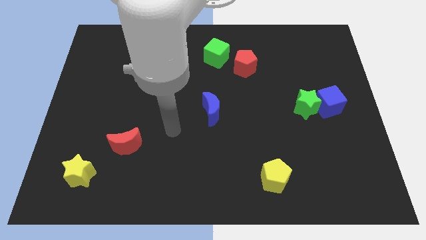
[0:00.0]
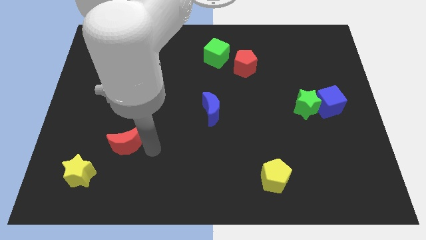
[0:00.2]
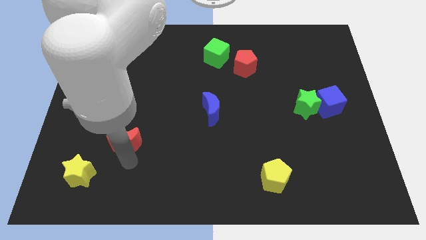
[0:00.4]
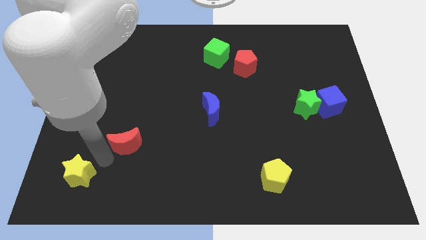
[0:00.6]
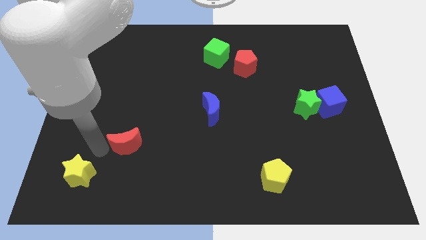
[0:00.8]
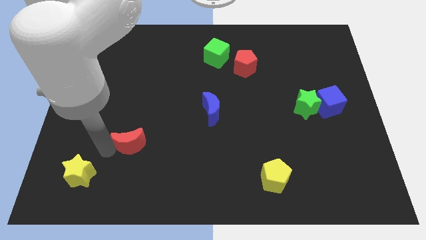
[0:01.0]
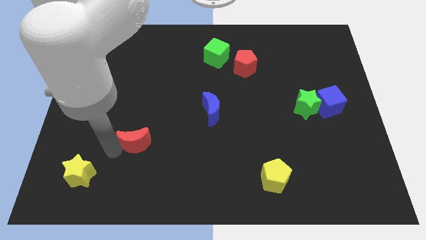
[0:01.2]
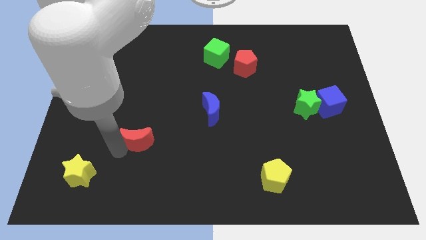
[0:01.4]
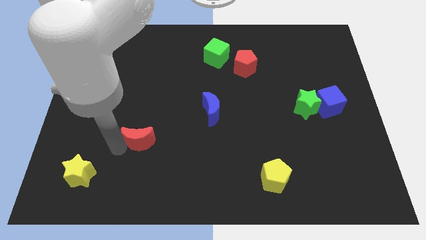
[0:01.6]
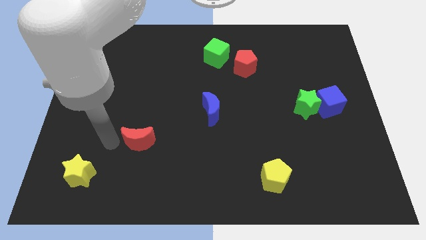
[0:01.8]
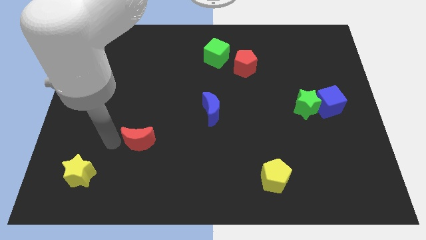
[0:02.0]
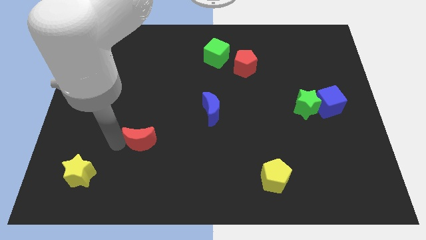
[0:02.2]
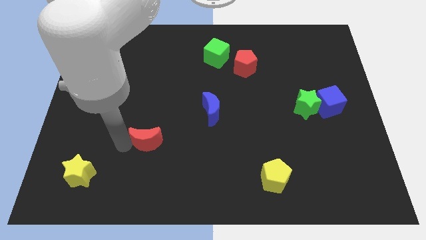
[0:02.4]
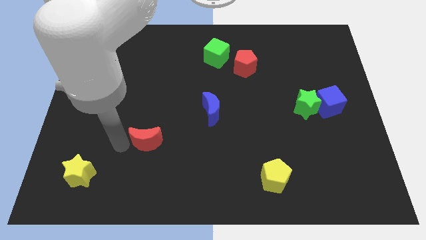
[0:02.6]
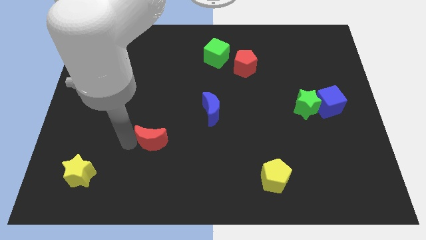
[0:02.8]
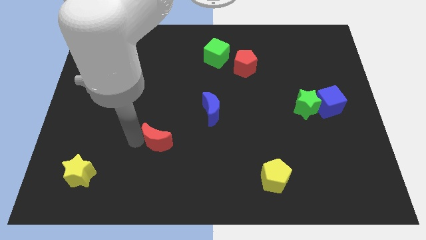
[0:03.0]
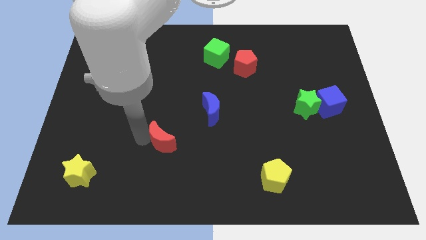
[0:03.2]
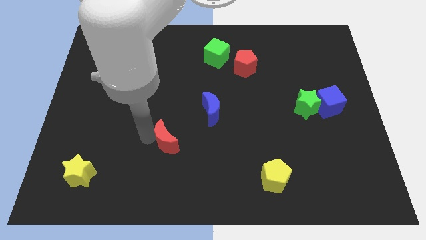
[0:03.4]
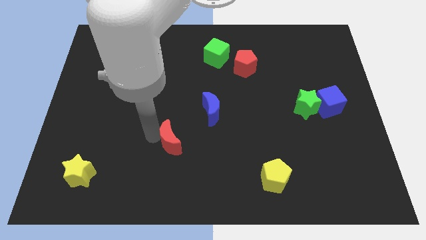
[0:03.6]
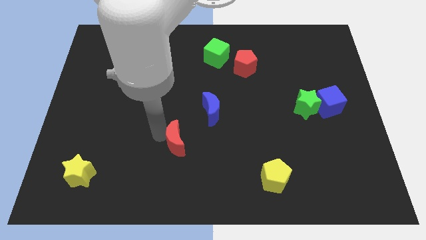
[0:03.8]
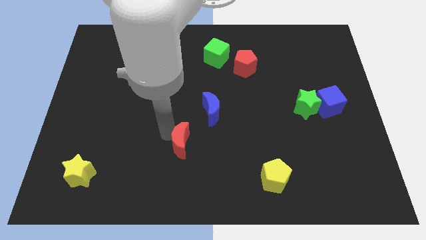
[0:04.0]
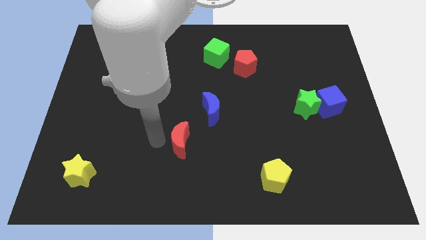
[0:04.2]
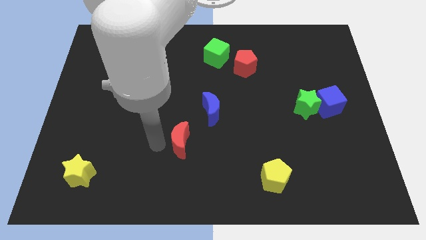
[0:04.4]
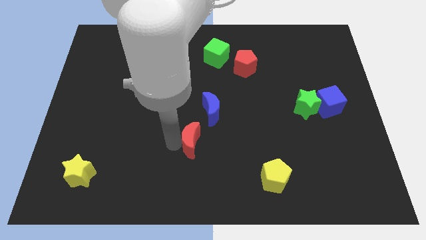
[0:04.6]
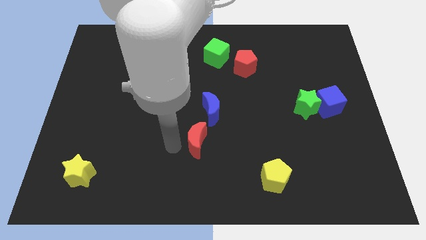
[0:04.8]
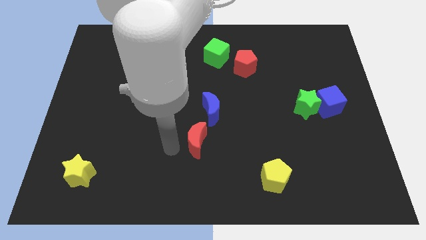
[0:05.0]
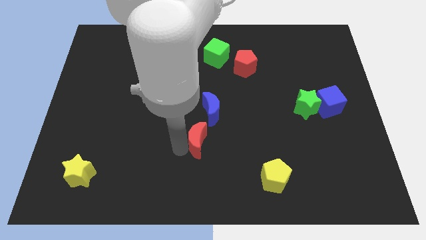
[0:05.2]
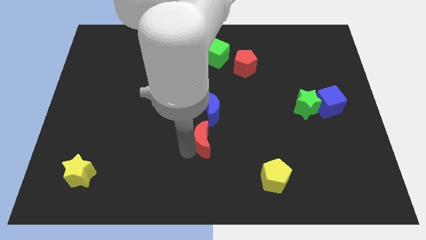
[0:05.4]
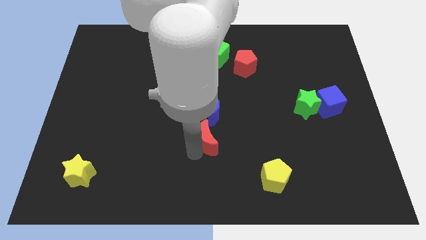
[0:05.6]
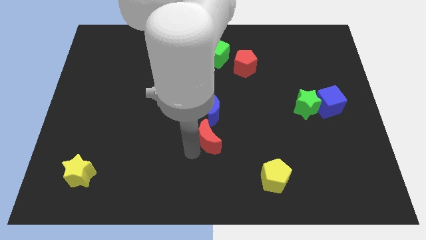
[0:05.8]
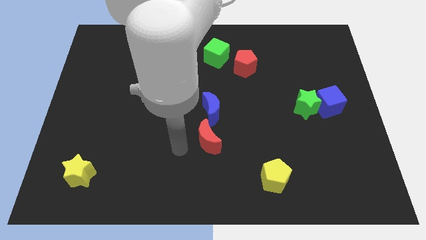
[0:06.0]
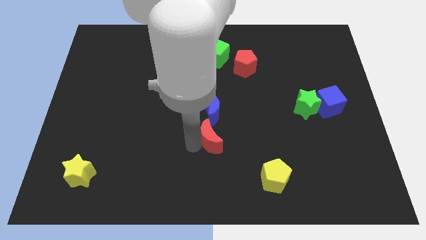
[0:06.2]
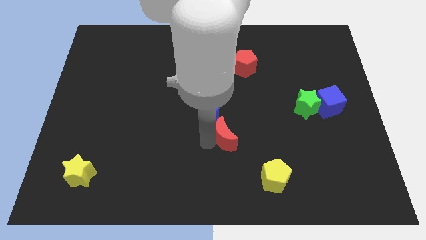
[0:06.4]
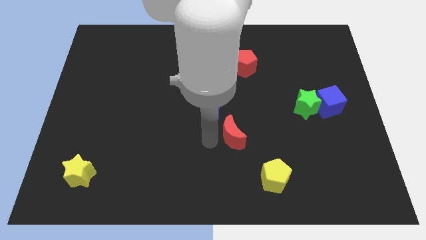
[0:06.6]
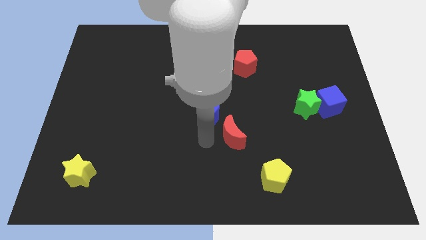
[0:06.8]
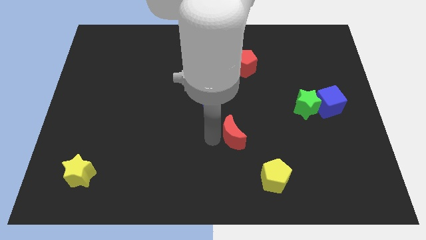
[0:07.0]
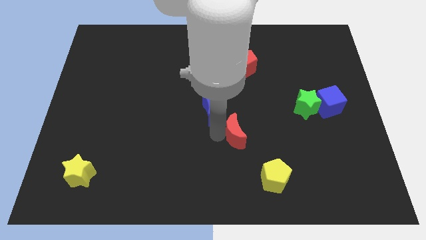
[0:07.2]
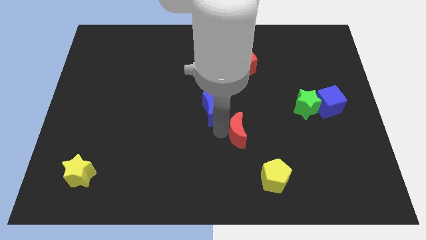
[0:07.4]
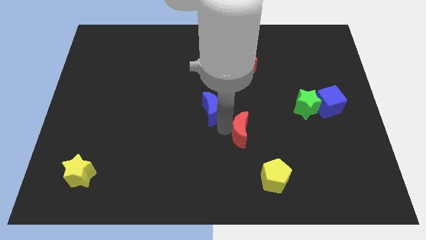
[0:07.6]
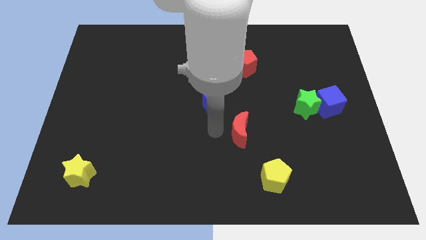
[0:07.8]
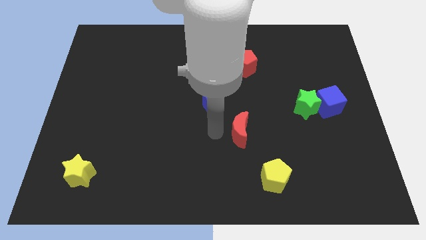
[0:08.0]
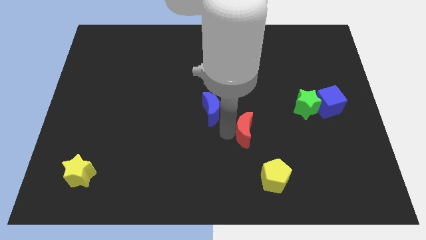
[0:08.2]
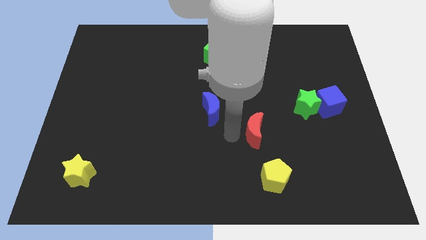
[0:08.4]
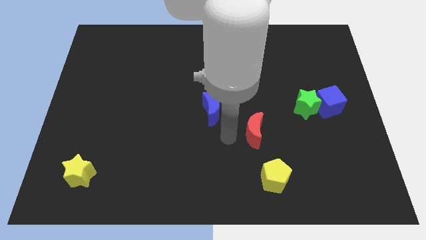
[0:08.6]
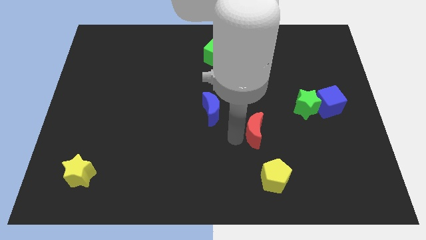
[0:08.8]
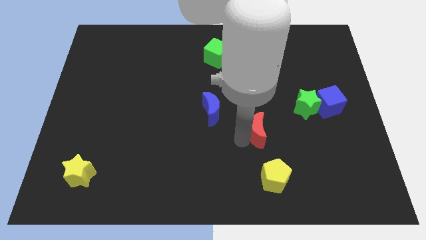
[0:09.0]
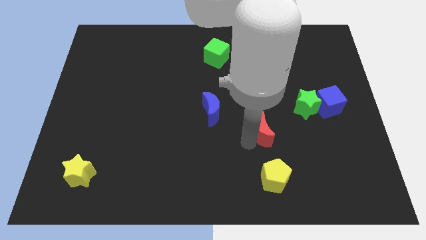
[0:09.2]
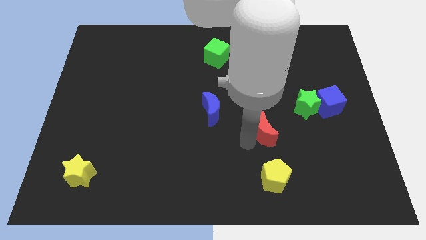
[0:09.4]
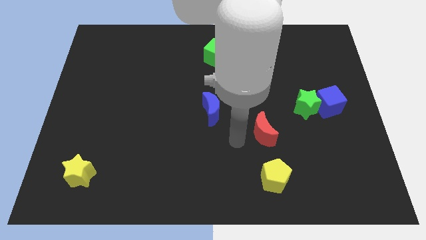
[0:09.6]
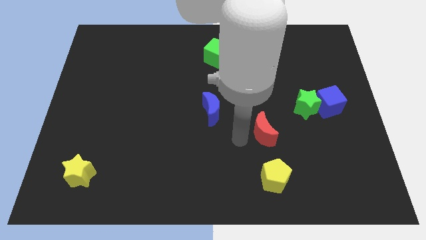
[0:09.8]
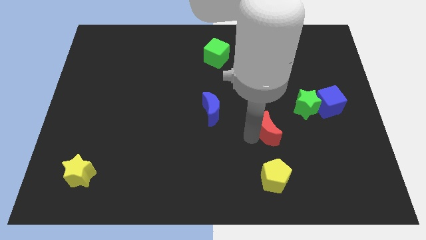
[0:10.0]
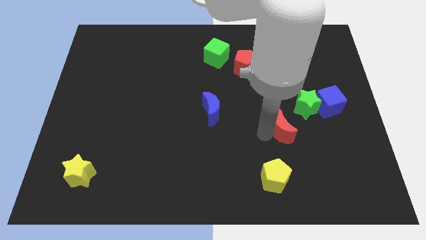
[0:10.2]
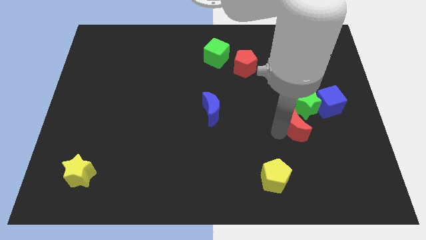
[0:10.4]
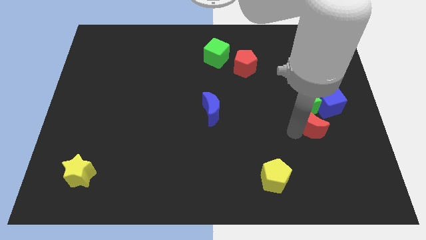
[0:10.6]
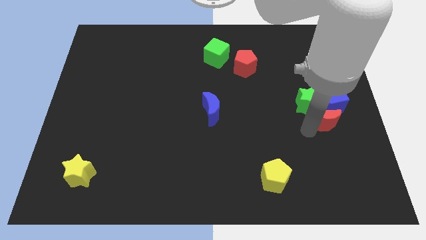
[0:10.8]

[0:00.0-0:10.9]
move the red moon to the blue cube

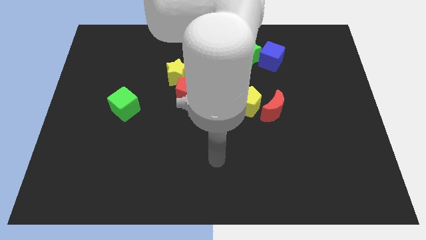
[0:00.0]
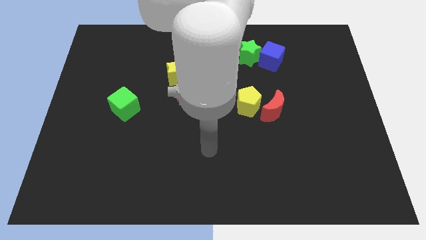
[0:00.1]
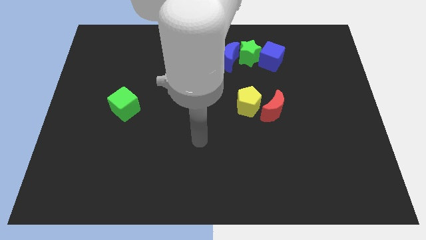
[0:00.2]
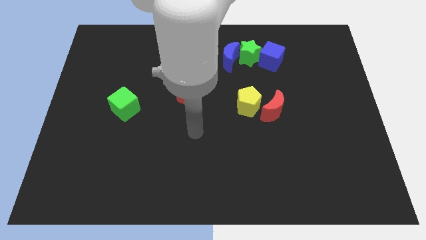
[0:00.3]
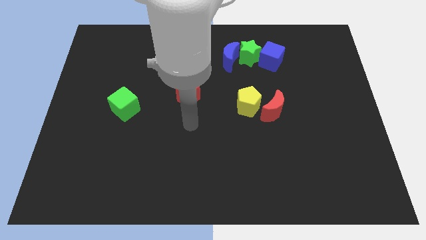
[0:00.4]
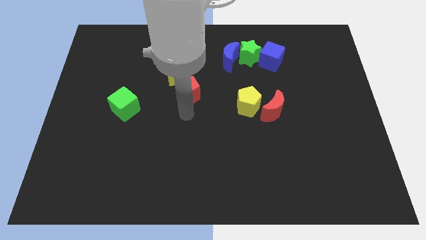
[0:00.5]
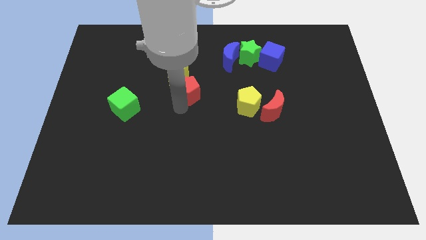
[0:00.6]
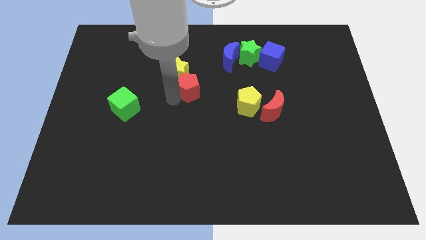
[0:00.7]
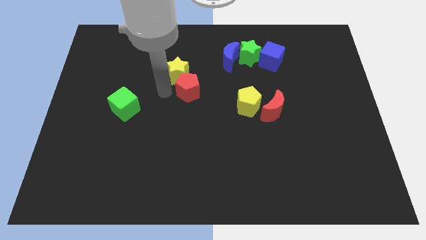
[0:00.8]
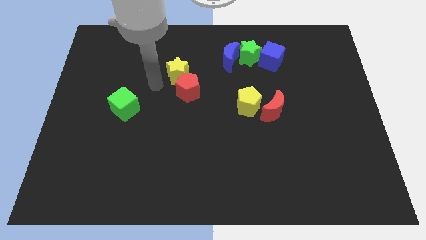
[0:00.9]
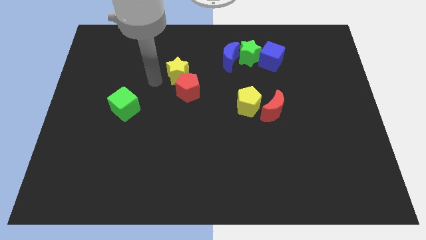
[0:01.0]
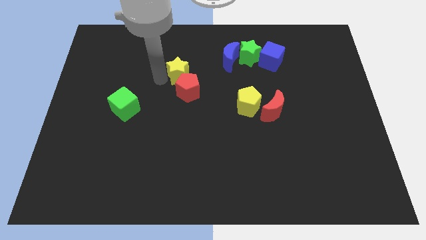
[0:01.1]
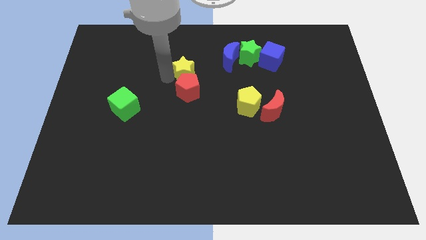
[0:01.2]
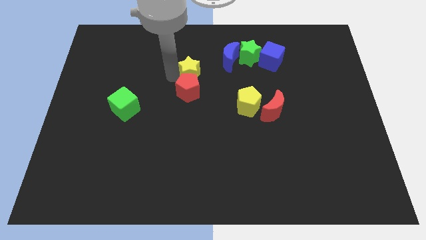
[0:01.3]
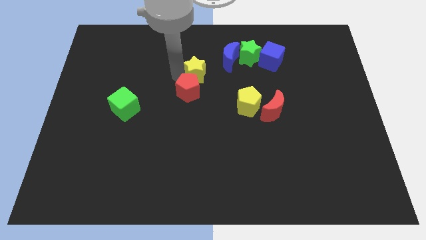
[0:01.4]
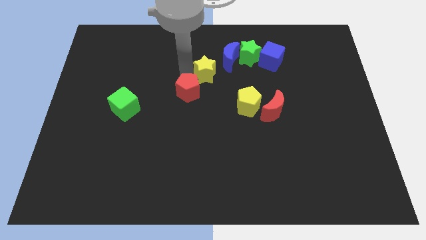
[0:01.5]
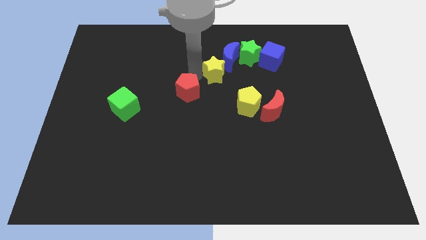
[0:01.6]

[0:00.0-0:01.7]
put the yellow star towards the blue moon
